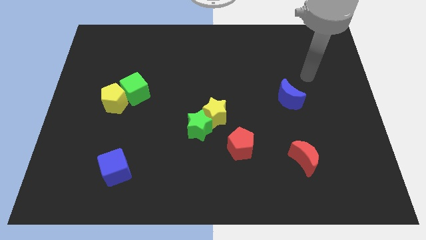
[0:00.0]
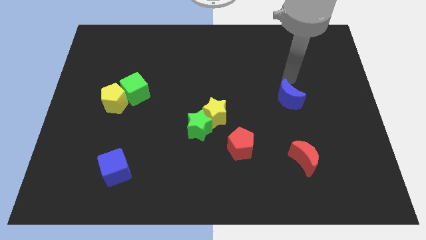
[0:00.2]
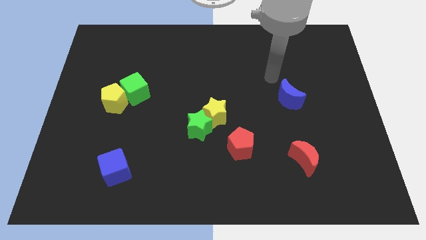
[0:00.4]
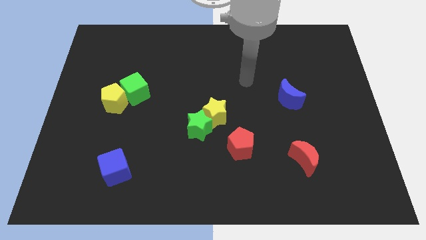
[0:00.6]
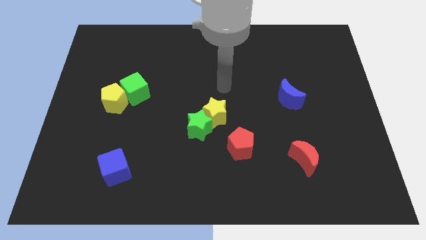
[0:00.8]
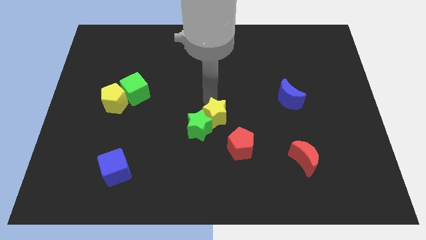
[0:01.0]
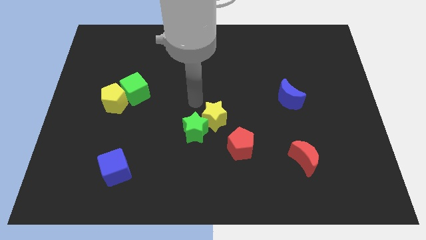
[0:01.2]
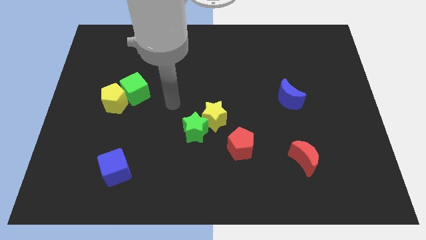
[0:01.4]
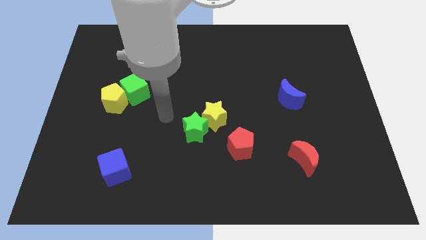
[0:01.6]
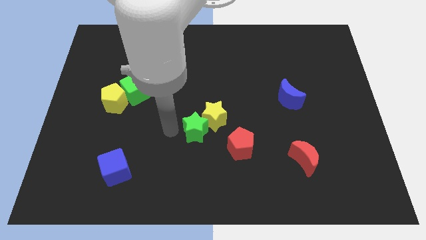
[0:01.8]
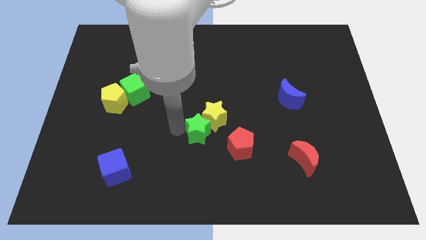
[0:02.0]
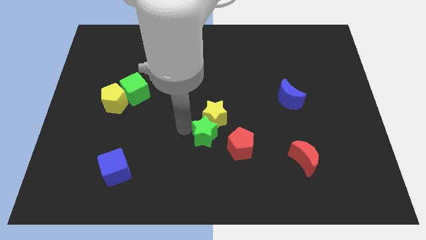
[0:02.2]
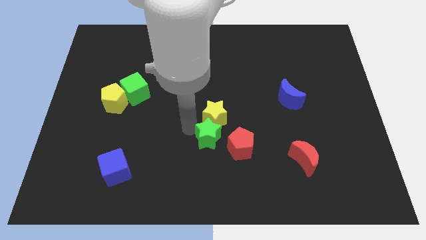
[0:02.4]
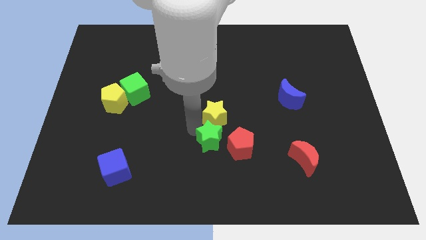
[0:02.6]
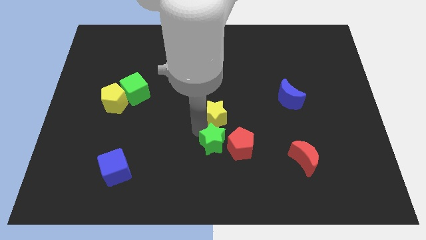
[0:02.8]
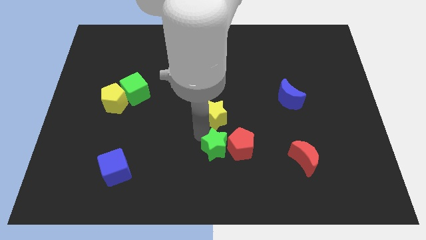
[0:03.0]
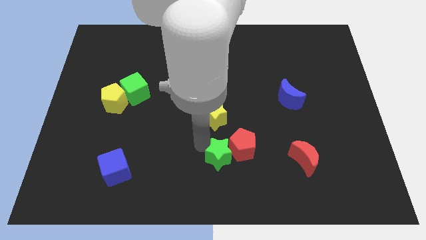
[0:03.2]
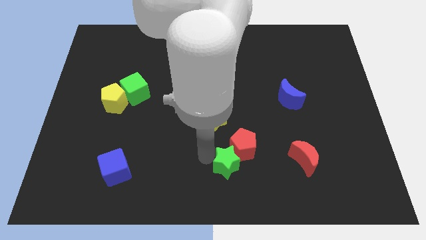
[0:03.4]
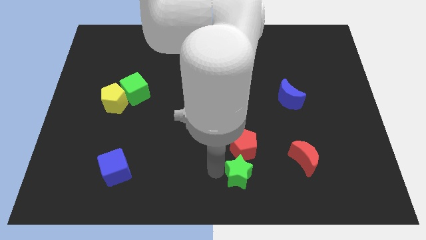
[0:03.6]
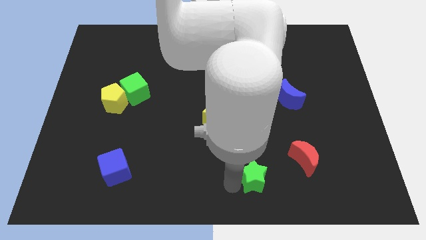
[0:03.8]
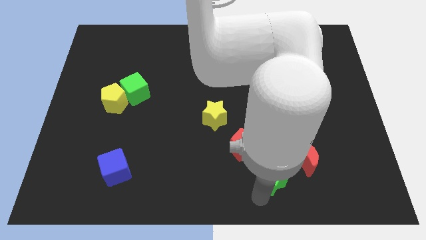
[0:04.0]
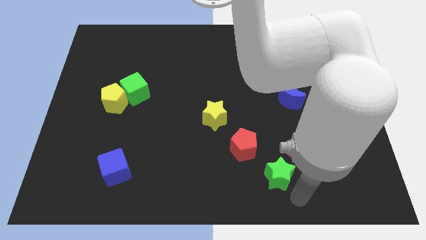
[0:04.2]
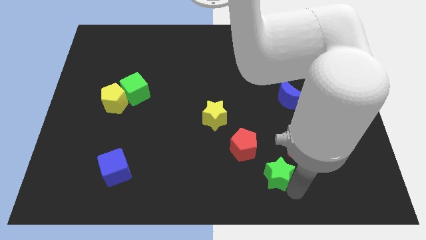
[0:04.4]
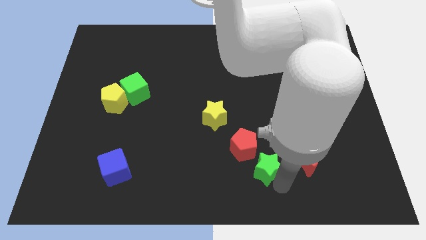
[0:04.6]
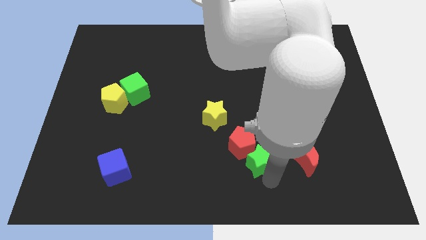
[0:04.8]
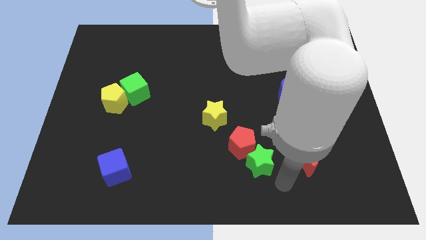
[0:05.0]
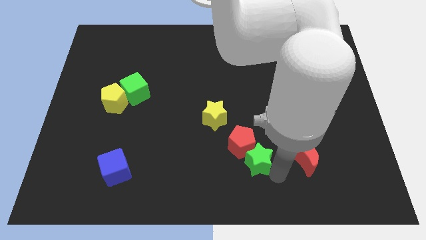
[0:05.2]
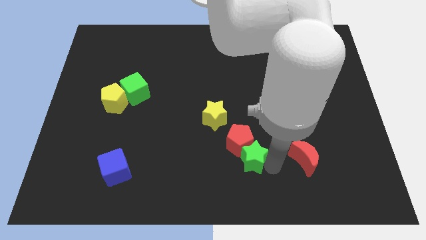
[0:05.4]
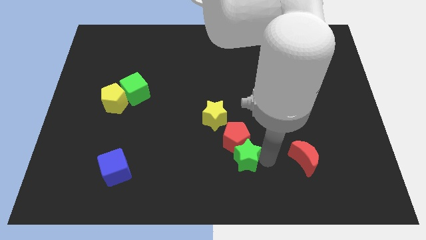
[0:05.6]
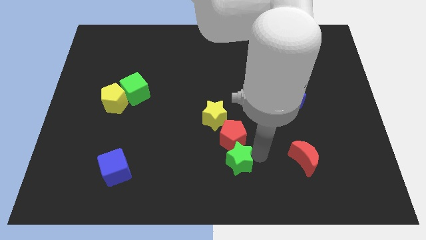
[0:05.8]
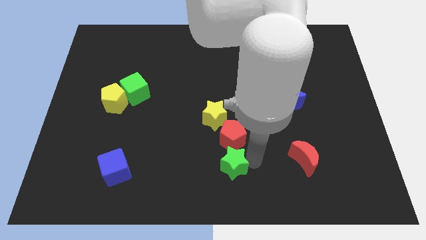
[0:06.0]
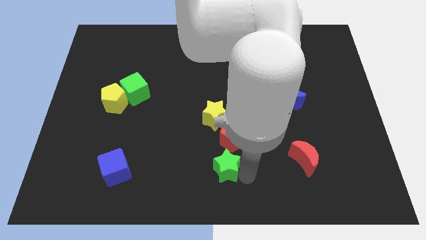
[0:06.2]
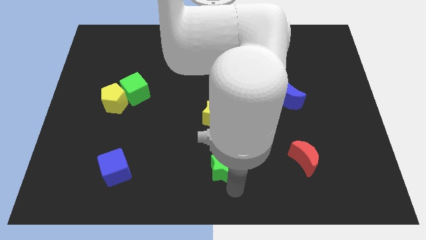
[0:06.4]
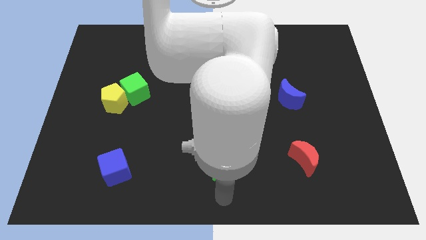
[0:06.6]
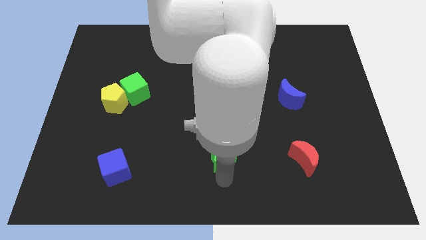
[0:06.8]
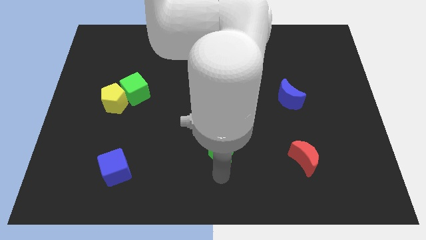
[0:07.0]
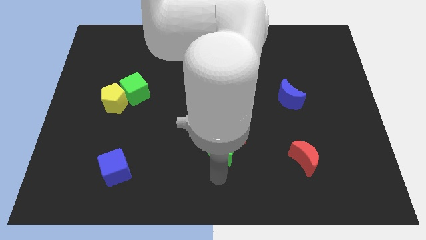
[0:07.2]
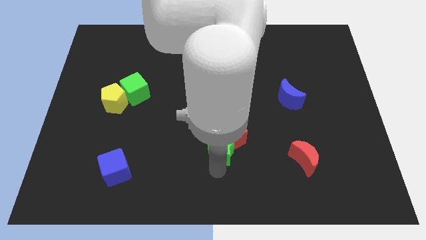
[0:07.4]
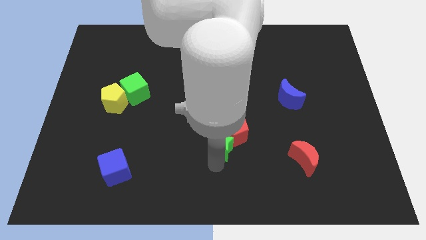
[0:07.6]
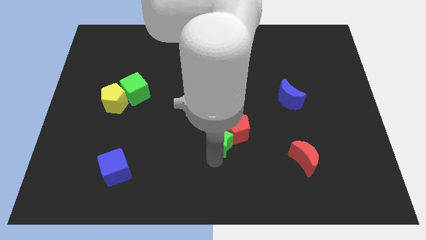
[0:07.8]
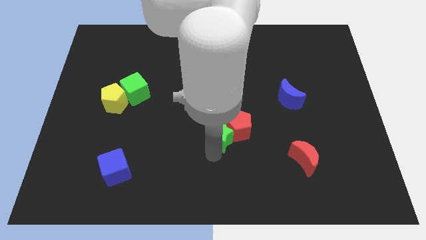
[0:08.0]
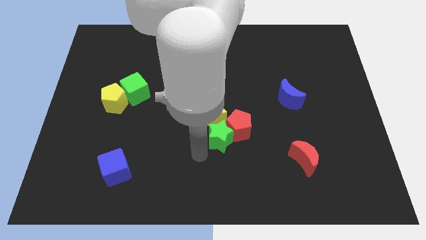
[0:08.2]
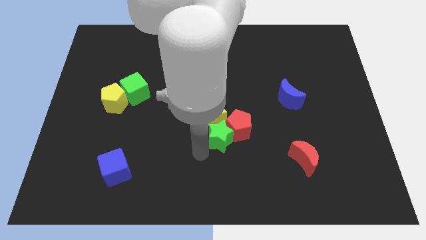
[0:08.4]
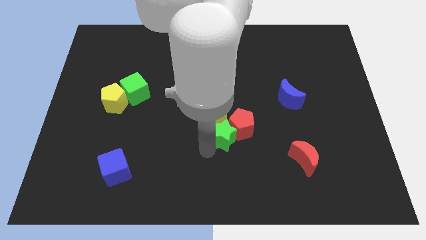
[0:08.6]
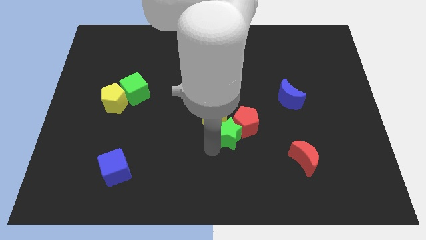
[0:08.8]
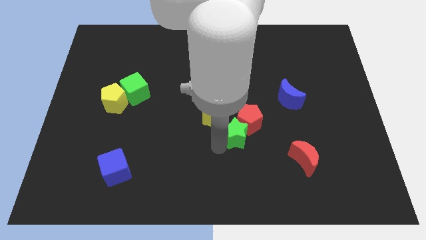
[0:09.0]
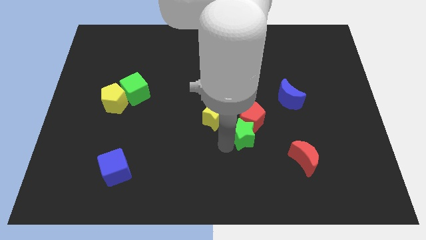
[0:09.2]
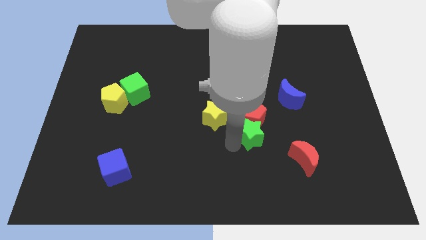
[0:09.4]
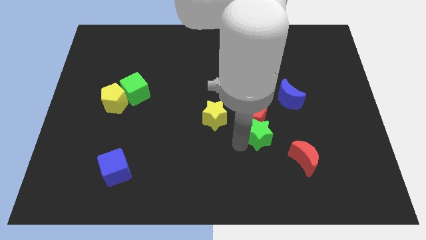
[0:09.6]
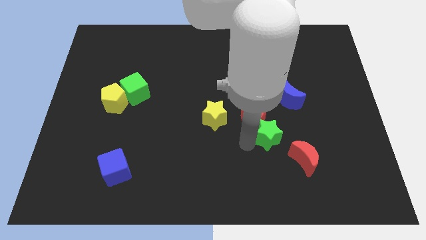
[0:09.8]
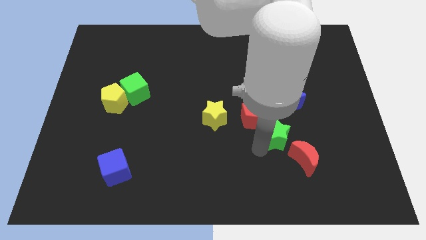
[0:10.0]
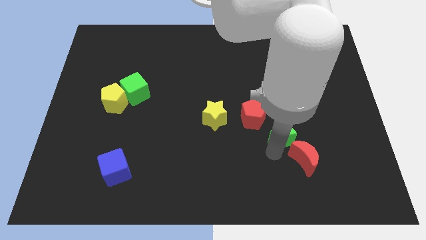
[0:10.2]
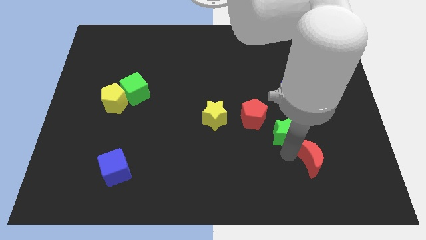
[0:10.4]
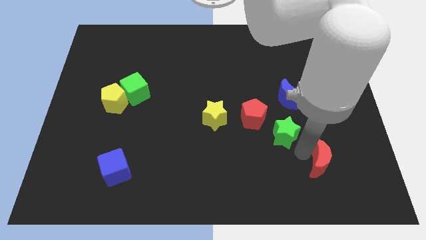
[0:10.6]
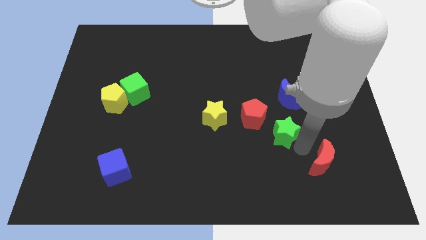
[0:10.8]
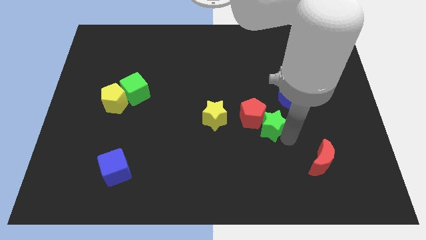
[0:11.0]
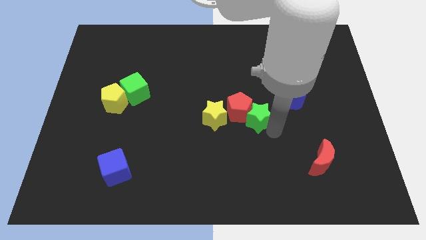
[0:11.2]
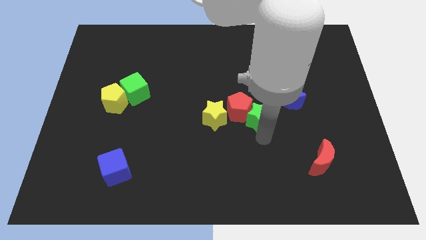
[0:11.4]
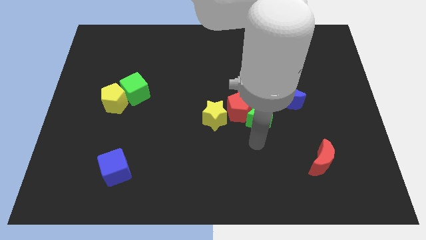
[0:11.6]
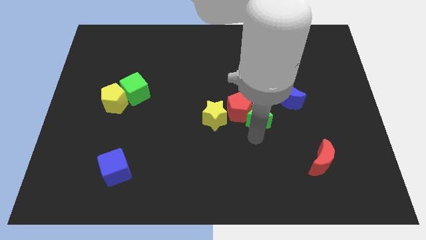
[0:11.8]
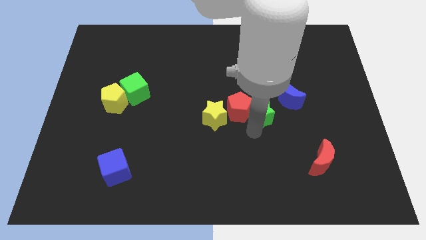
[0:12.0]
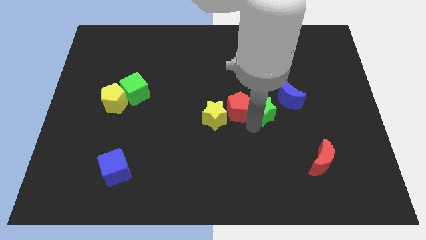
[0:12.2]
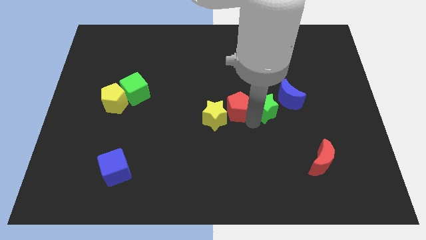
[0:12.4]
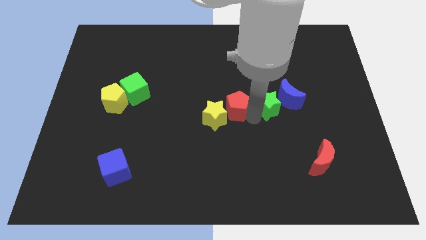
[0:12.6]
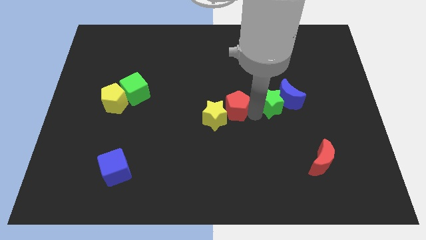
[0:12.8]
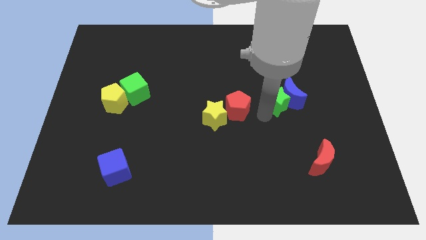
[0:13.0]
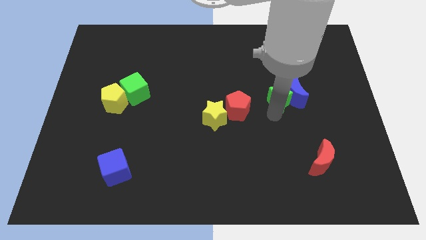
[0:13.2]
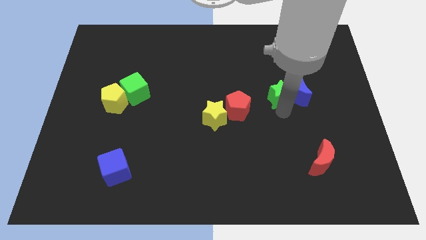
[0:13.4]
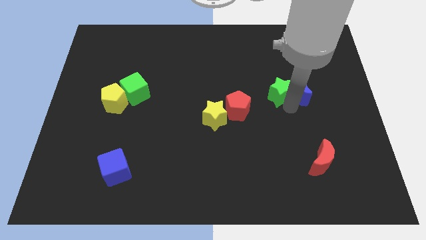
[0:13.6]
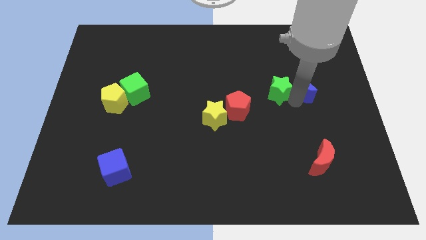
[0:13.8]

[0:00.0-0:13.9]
push the green star up and then to the right

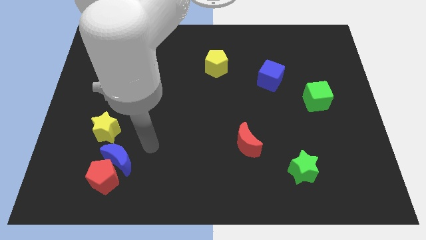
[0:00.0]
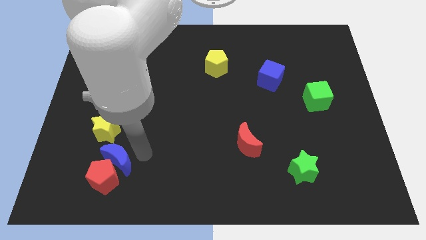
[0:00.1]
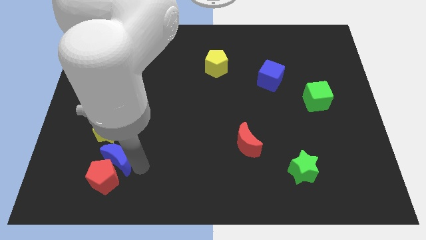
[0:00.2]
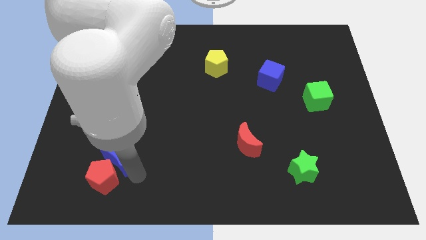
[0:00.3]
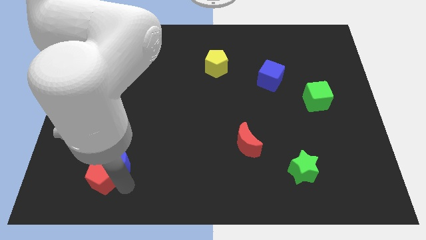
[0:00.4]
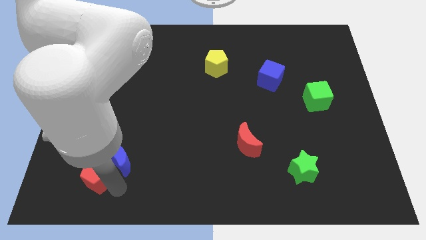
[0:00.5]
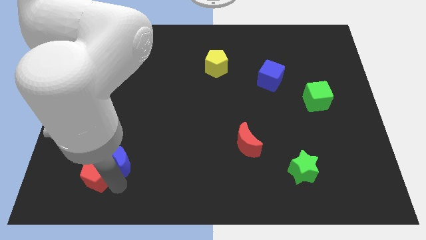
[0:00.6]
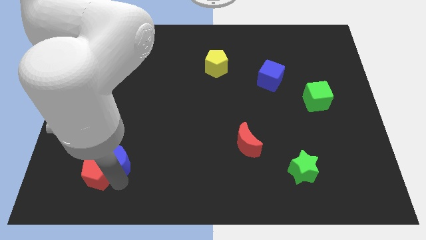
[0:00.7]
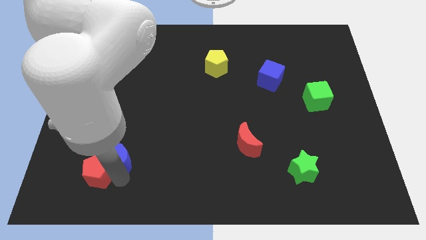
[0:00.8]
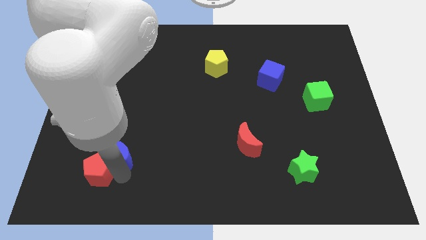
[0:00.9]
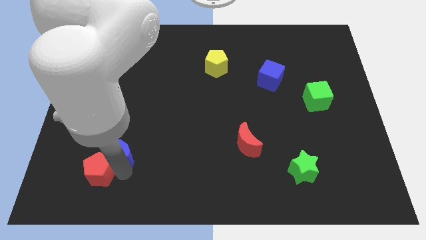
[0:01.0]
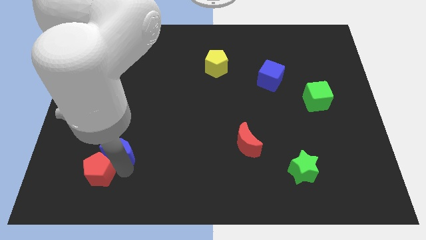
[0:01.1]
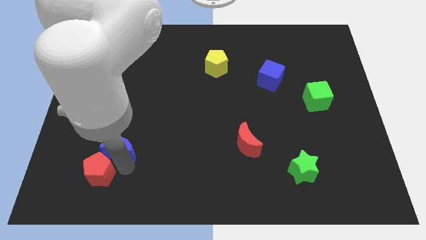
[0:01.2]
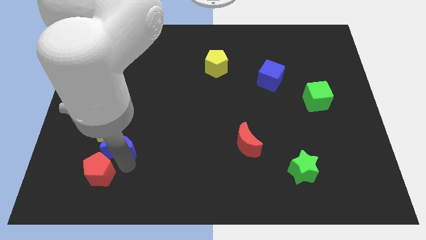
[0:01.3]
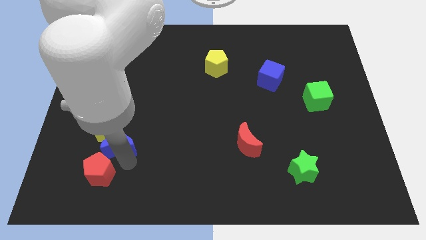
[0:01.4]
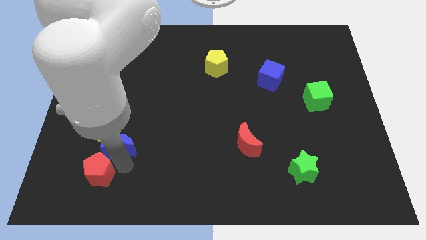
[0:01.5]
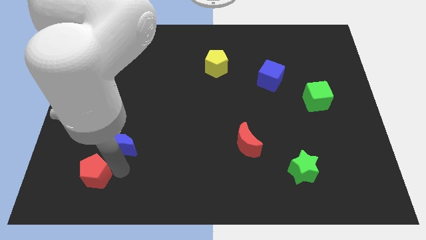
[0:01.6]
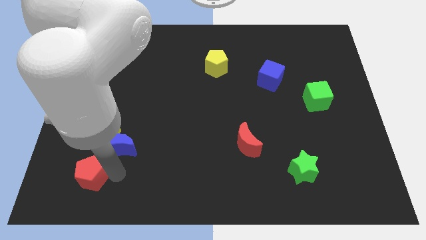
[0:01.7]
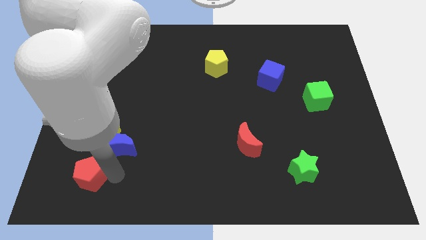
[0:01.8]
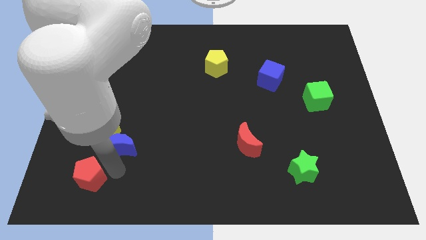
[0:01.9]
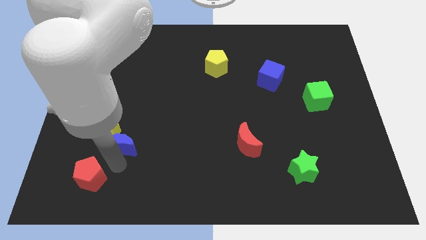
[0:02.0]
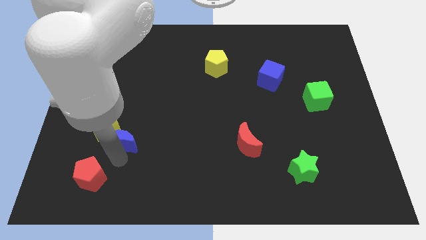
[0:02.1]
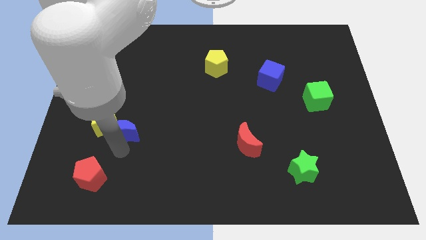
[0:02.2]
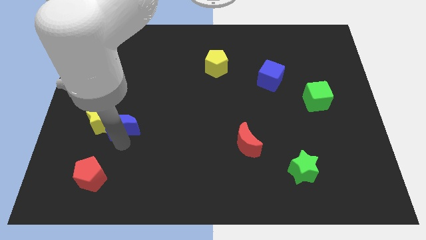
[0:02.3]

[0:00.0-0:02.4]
slightly move the blue moon up
